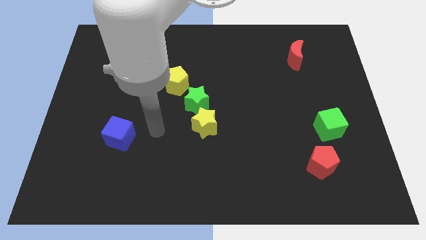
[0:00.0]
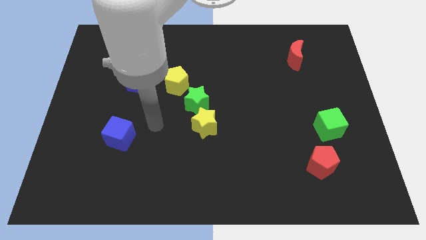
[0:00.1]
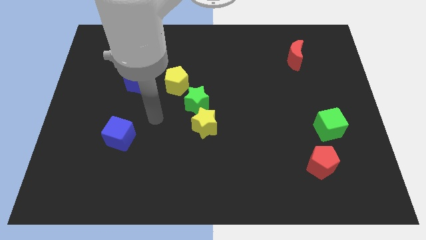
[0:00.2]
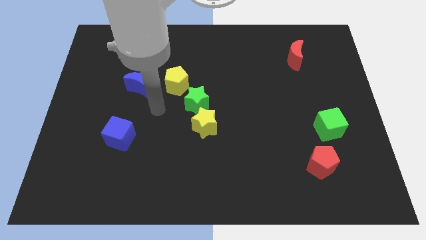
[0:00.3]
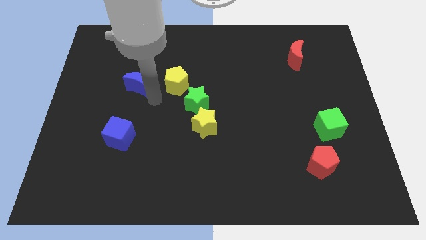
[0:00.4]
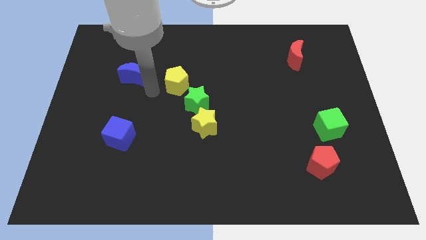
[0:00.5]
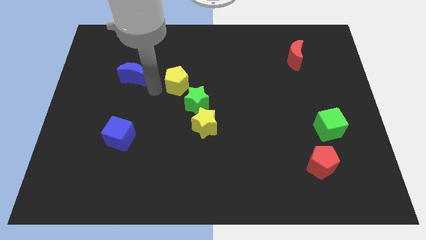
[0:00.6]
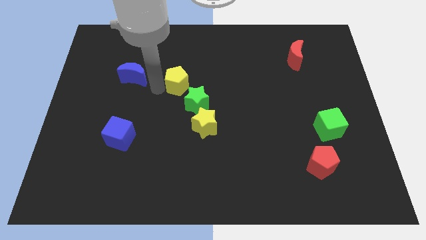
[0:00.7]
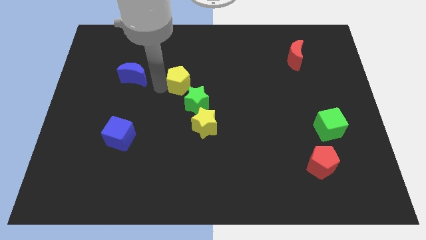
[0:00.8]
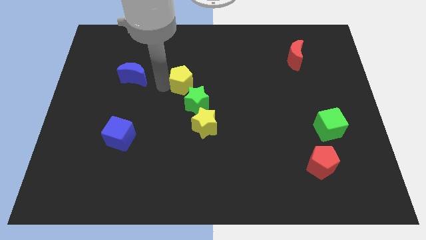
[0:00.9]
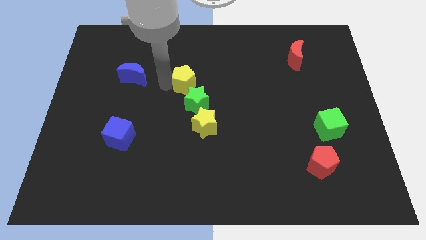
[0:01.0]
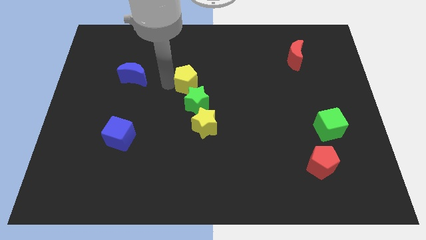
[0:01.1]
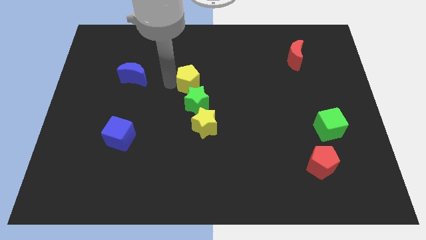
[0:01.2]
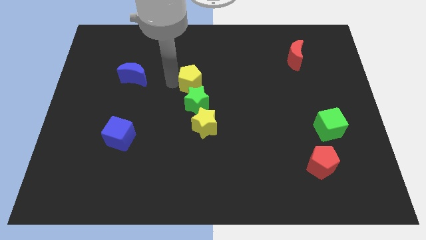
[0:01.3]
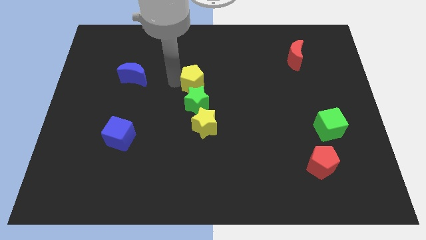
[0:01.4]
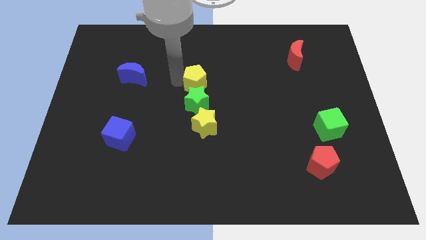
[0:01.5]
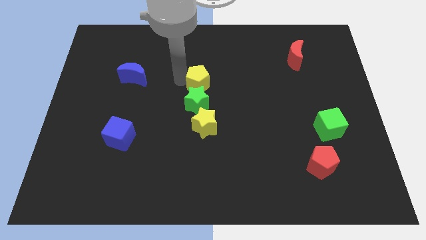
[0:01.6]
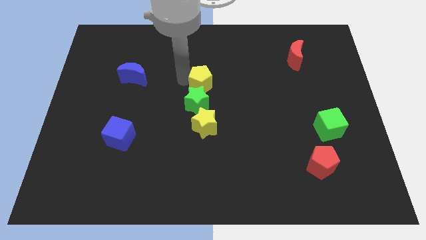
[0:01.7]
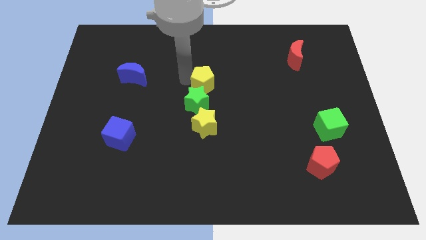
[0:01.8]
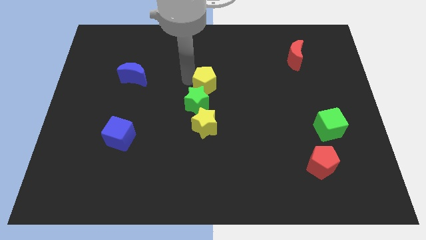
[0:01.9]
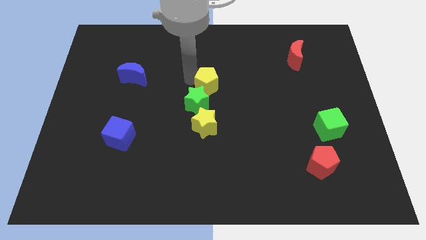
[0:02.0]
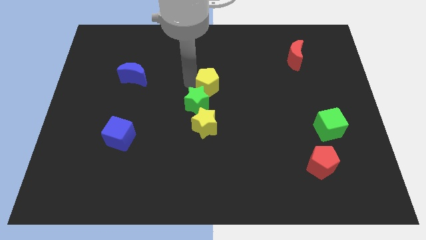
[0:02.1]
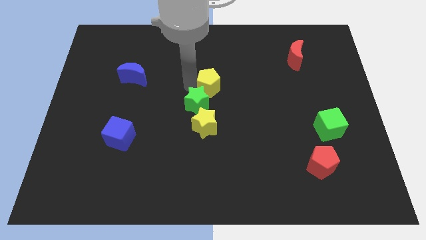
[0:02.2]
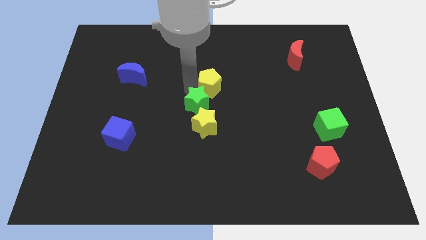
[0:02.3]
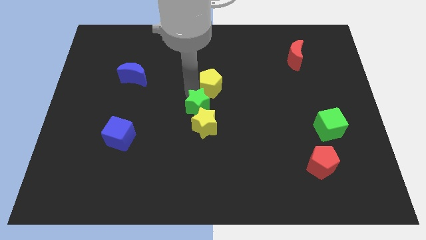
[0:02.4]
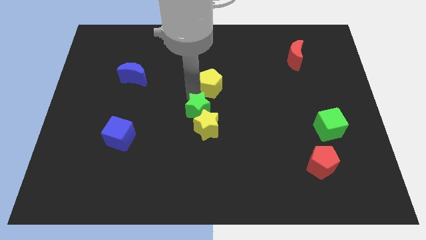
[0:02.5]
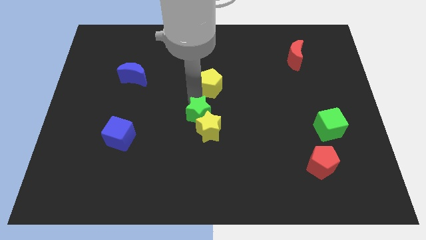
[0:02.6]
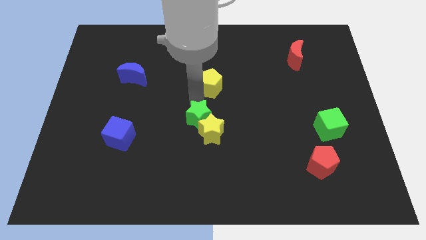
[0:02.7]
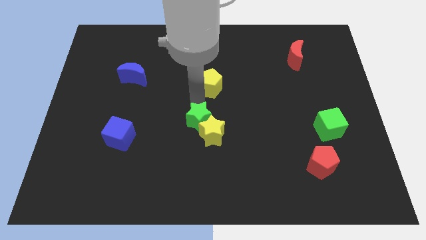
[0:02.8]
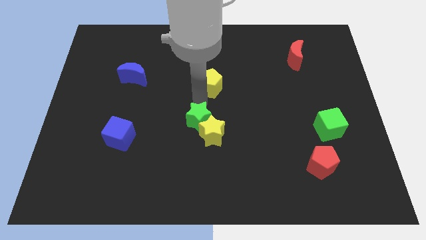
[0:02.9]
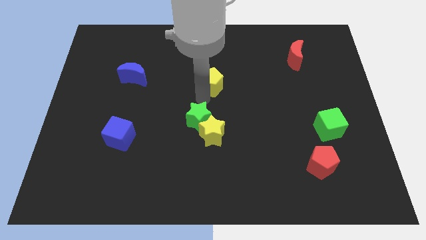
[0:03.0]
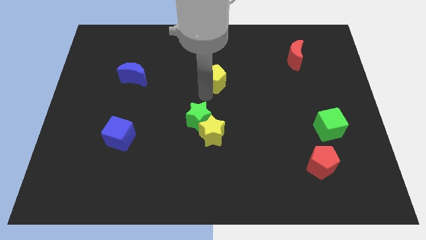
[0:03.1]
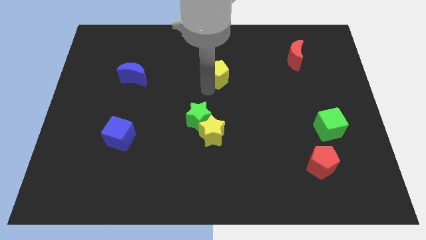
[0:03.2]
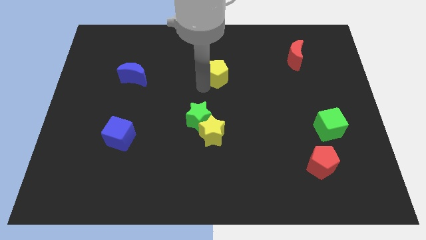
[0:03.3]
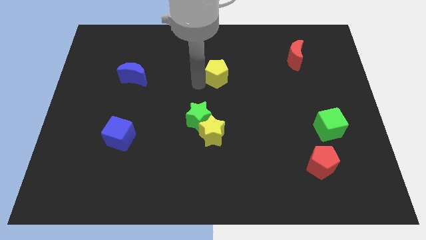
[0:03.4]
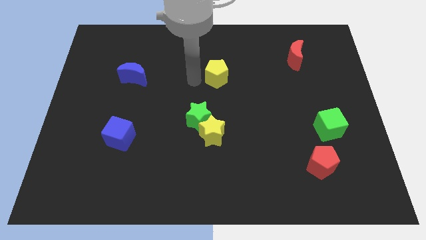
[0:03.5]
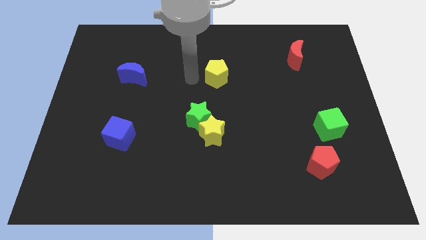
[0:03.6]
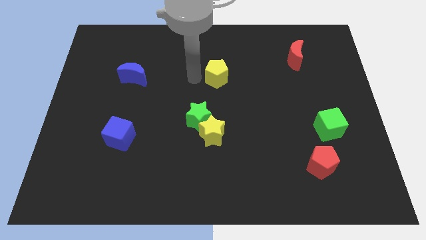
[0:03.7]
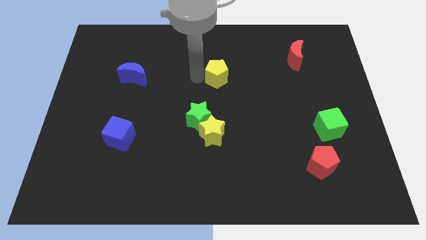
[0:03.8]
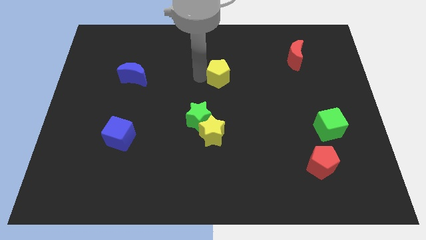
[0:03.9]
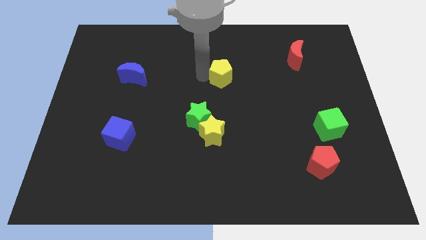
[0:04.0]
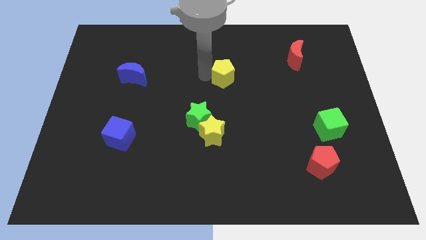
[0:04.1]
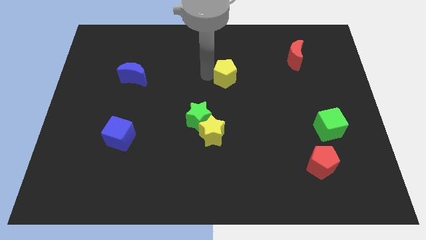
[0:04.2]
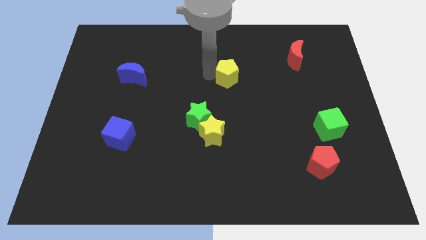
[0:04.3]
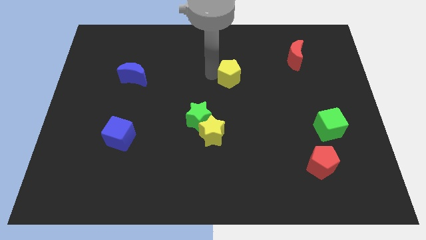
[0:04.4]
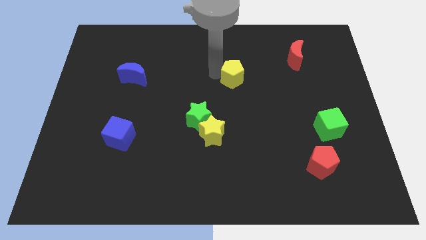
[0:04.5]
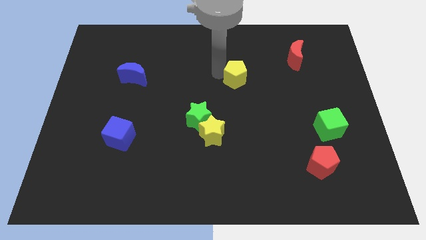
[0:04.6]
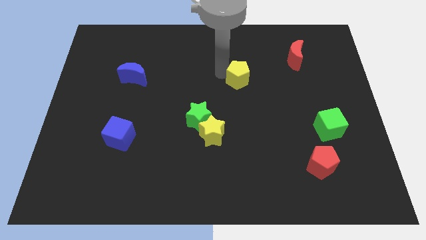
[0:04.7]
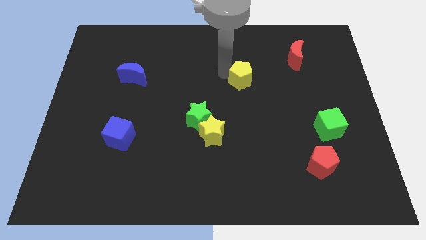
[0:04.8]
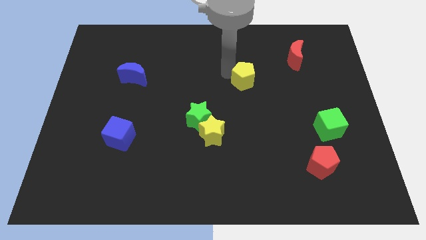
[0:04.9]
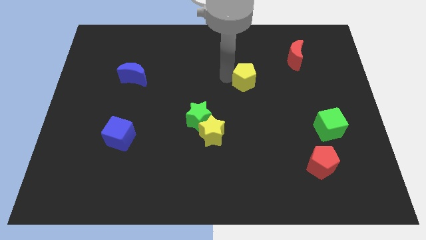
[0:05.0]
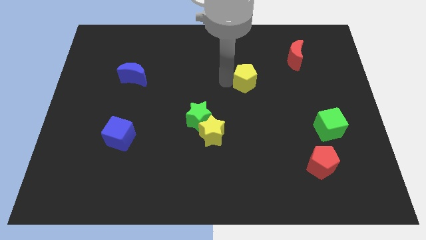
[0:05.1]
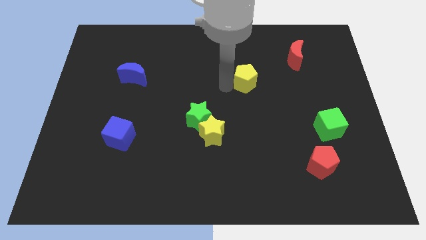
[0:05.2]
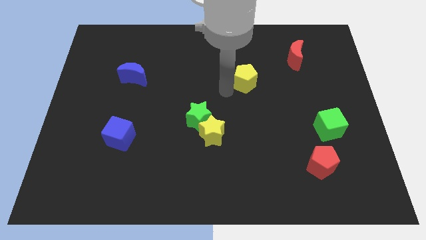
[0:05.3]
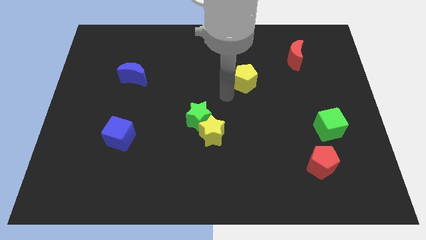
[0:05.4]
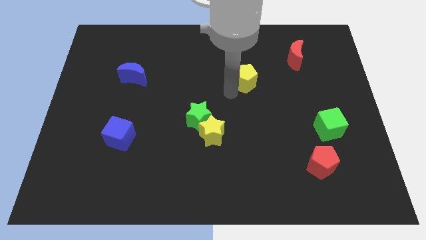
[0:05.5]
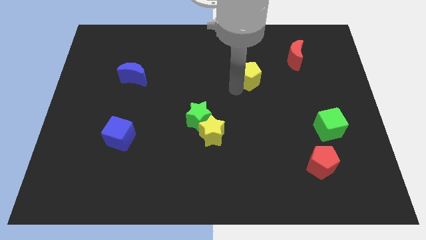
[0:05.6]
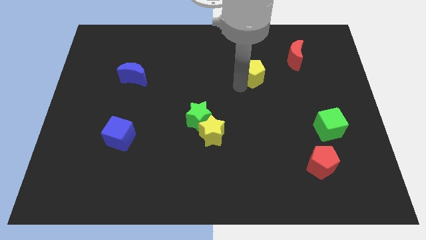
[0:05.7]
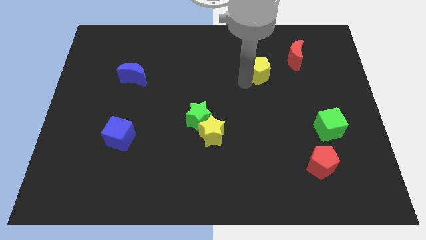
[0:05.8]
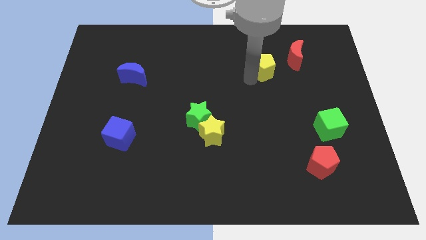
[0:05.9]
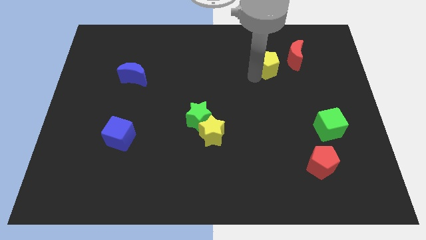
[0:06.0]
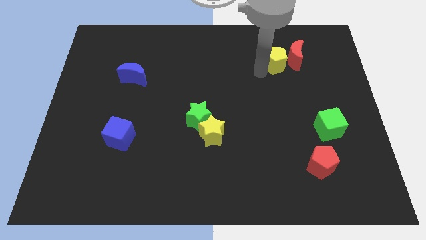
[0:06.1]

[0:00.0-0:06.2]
move the yellow pentagon towards the red moon

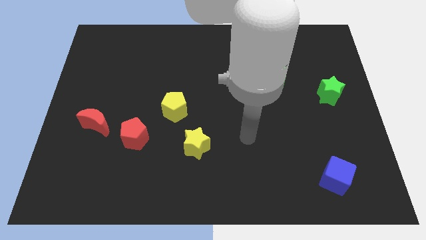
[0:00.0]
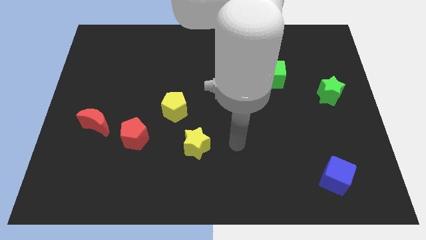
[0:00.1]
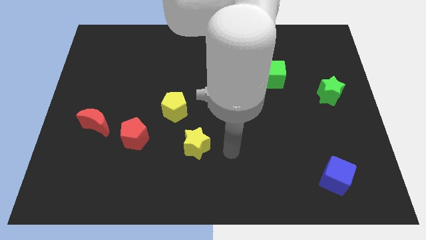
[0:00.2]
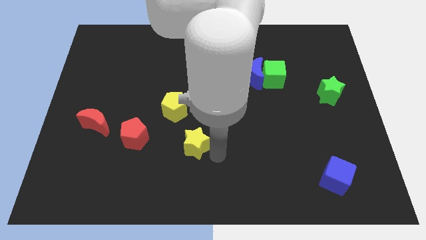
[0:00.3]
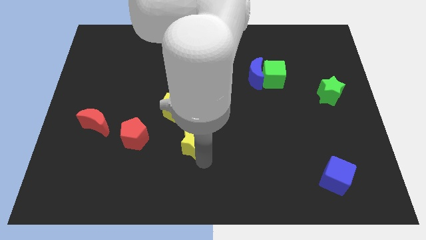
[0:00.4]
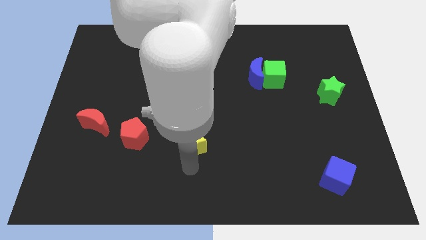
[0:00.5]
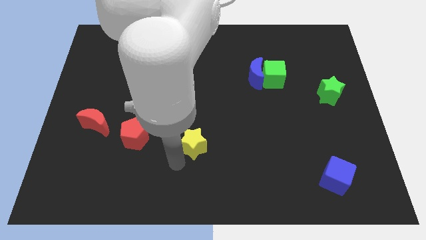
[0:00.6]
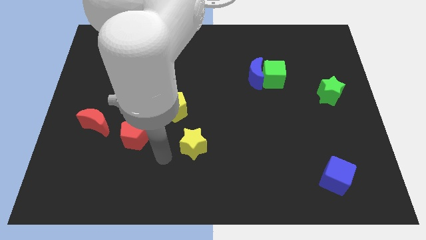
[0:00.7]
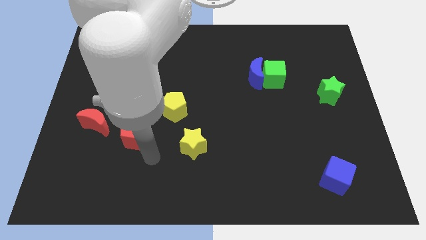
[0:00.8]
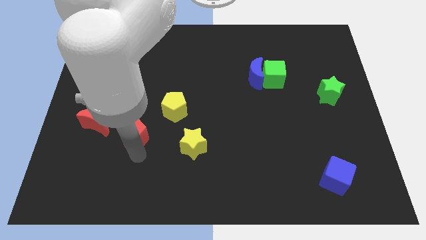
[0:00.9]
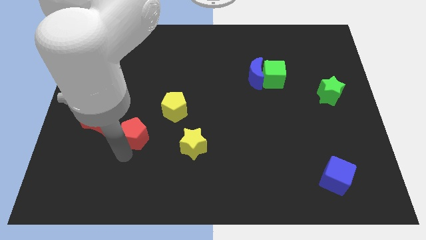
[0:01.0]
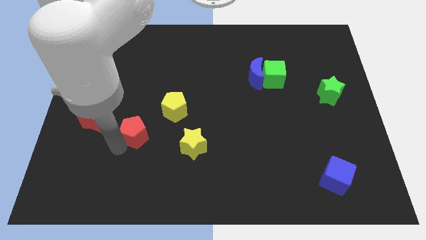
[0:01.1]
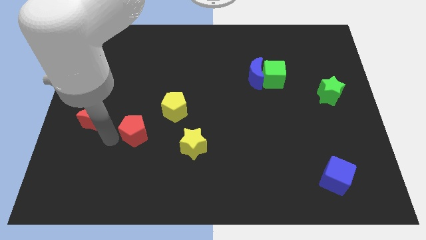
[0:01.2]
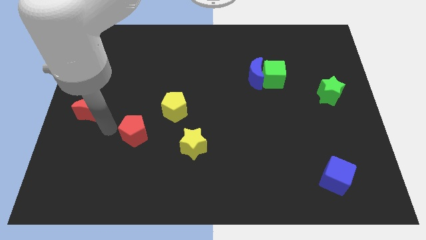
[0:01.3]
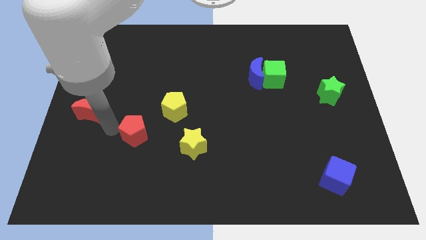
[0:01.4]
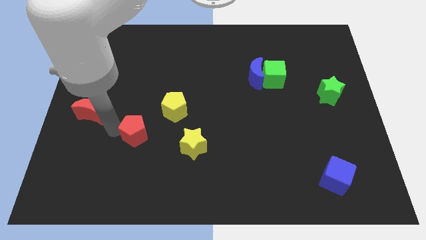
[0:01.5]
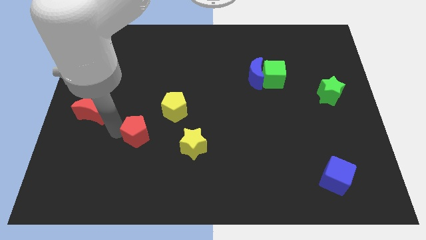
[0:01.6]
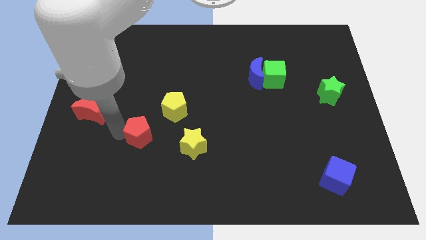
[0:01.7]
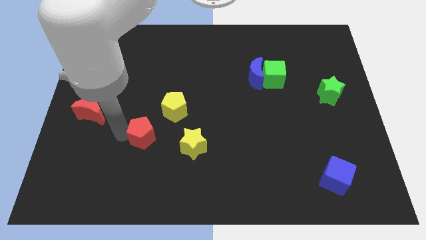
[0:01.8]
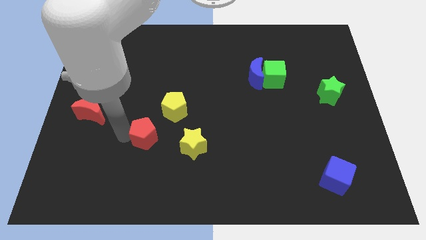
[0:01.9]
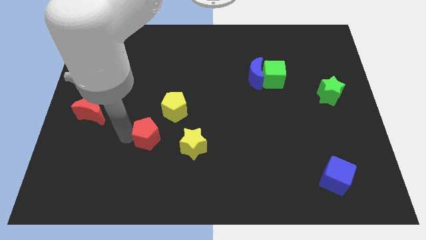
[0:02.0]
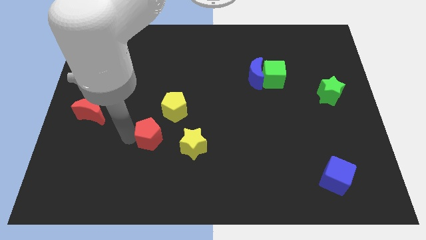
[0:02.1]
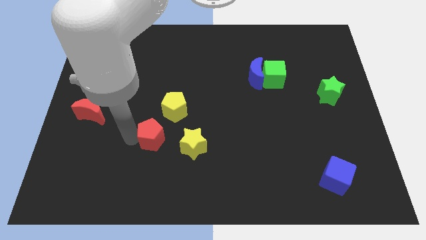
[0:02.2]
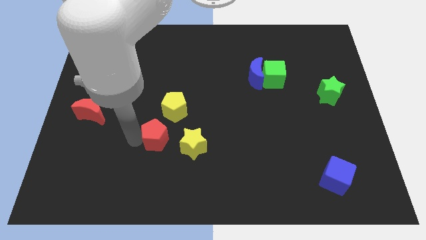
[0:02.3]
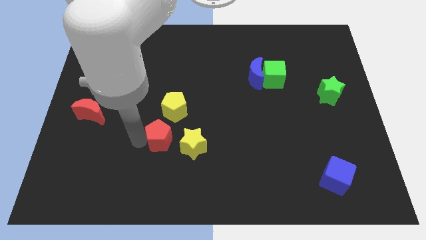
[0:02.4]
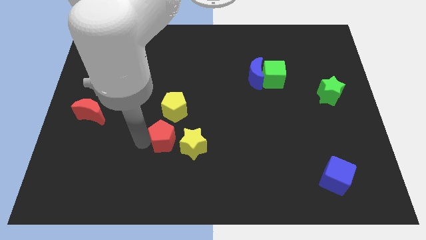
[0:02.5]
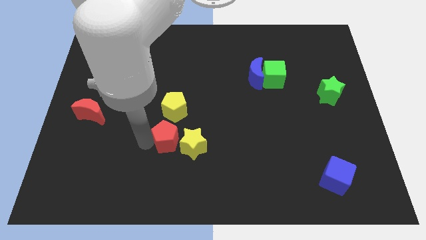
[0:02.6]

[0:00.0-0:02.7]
slide the red pentagon towards the yellow star
